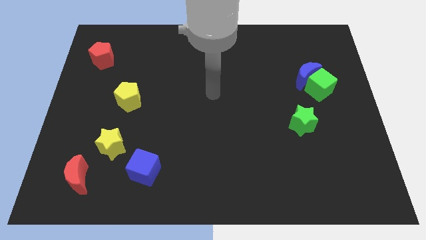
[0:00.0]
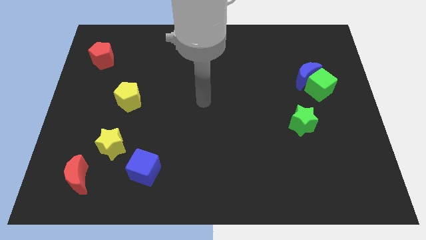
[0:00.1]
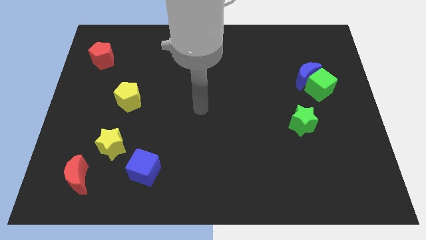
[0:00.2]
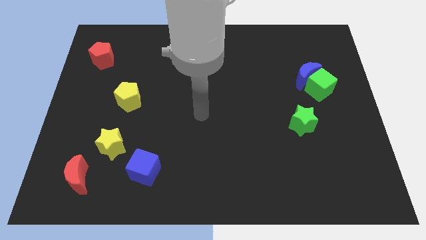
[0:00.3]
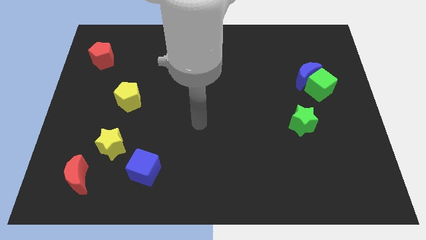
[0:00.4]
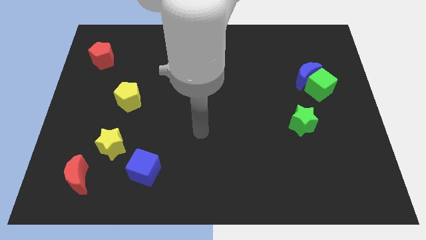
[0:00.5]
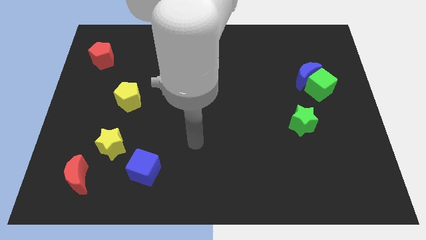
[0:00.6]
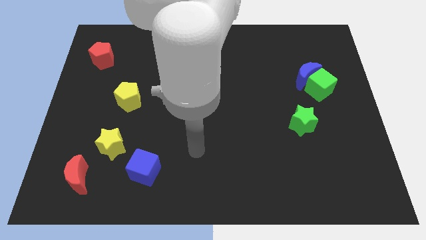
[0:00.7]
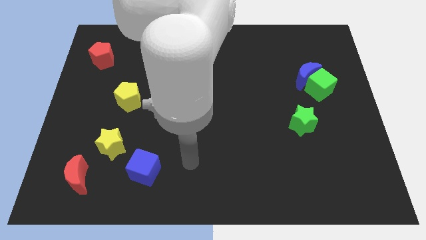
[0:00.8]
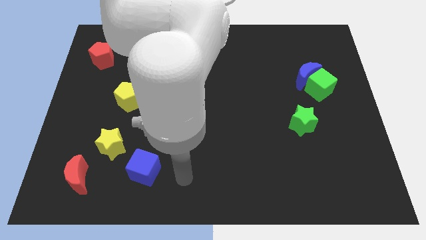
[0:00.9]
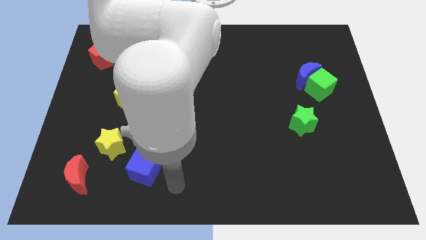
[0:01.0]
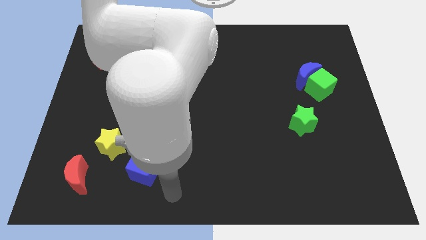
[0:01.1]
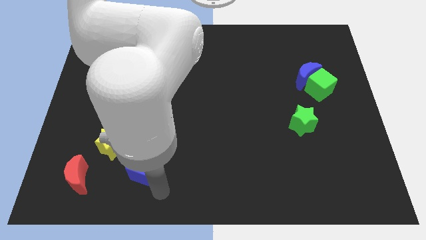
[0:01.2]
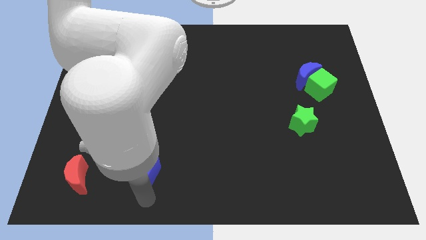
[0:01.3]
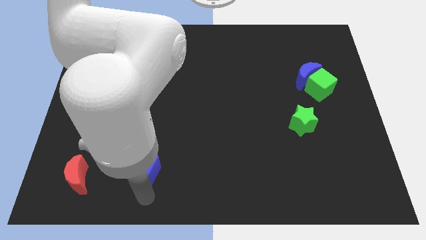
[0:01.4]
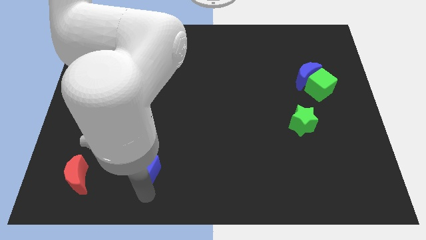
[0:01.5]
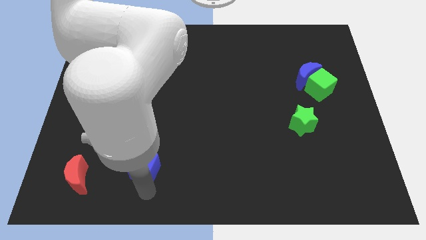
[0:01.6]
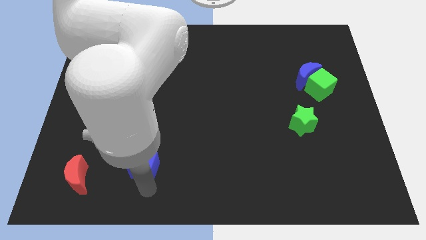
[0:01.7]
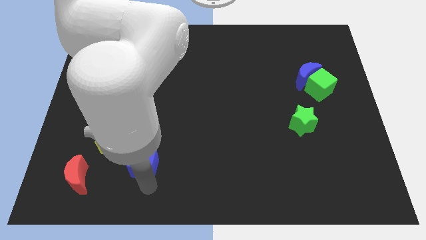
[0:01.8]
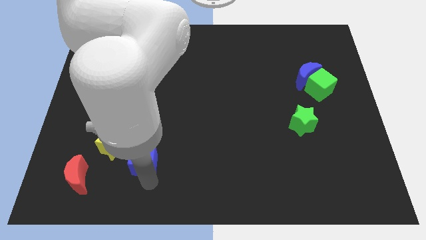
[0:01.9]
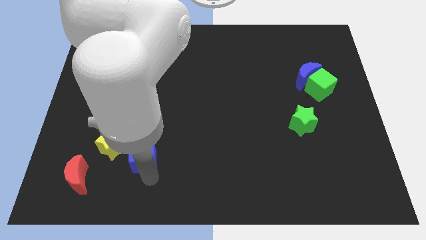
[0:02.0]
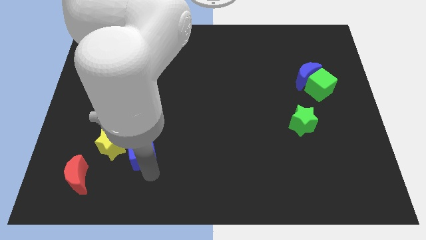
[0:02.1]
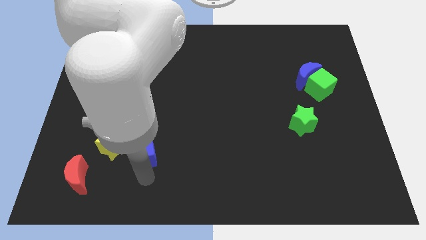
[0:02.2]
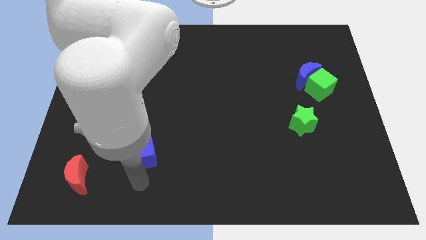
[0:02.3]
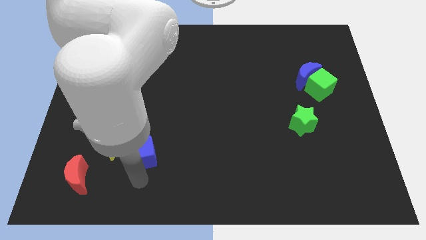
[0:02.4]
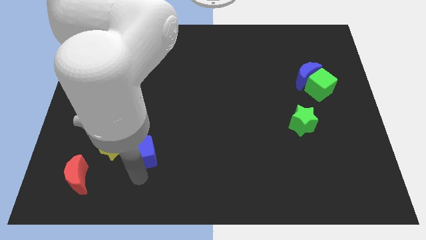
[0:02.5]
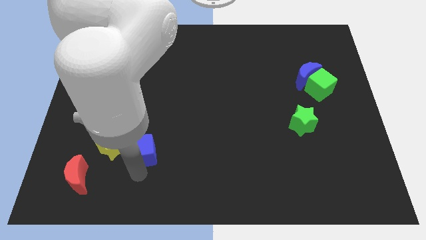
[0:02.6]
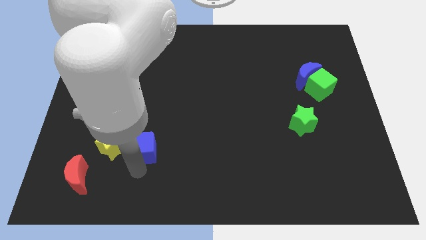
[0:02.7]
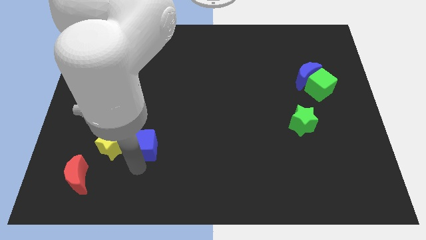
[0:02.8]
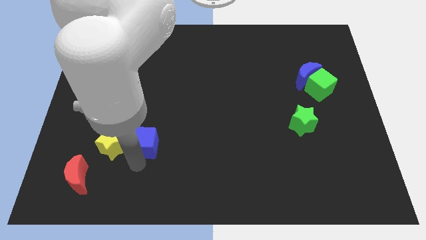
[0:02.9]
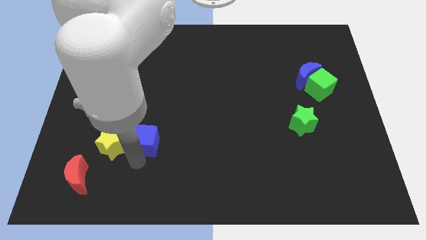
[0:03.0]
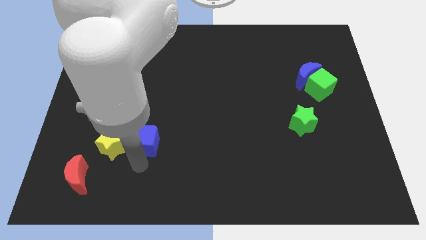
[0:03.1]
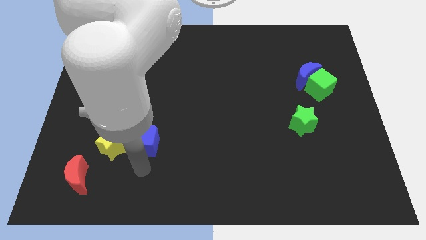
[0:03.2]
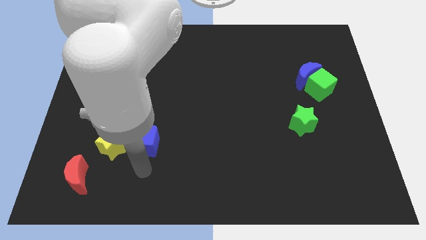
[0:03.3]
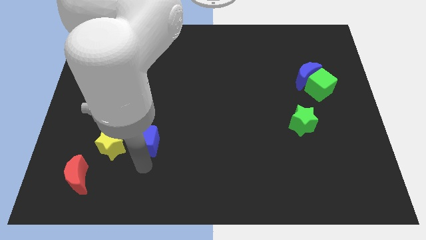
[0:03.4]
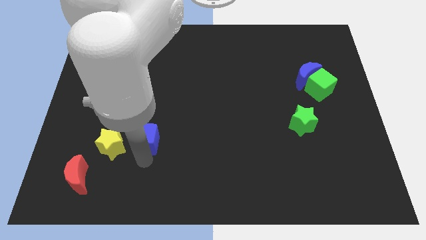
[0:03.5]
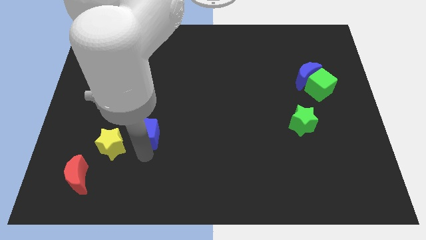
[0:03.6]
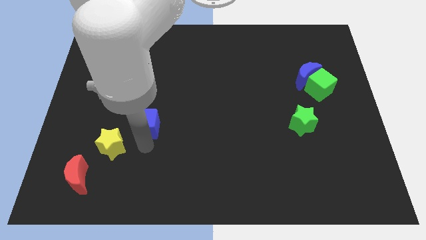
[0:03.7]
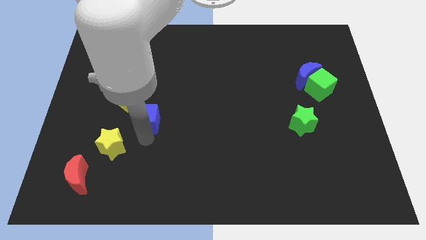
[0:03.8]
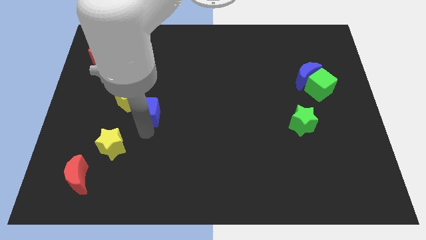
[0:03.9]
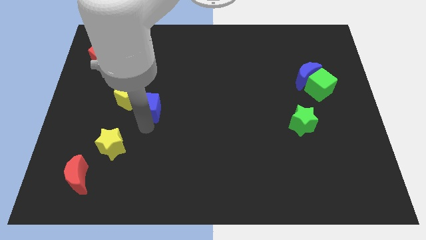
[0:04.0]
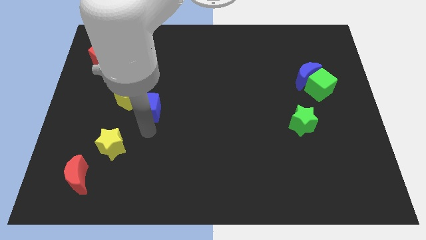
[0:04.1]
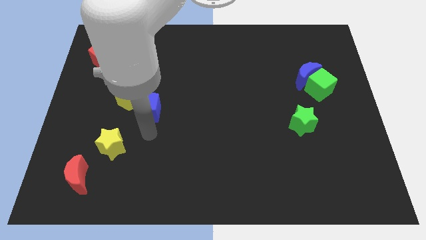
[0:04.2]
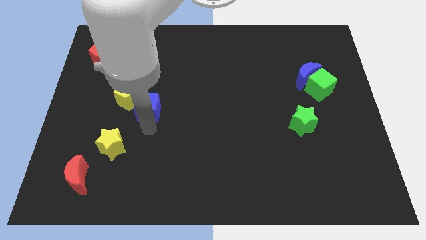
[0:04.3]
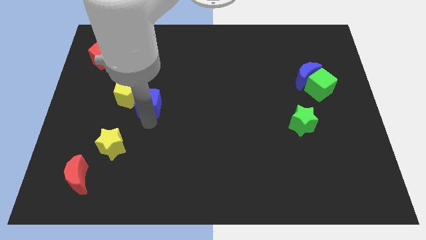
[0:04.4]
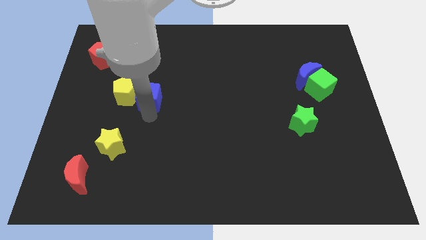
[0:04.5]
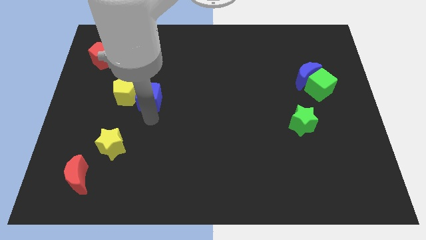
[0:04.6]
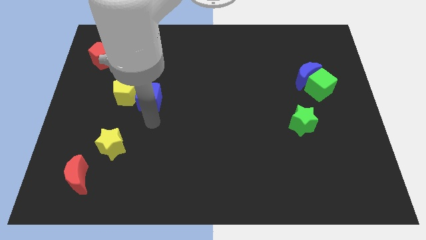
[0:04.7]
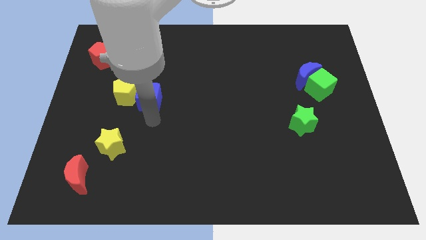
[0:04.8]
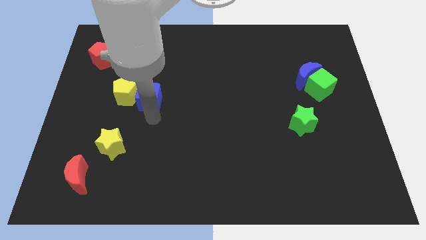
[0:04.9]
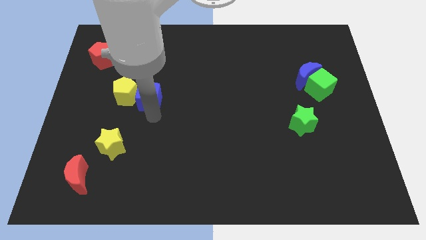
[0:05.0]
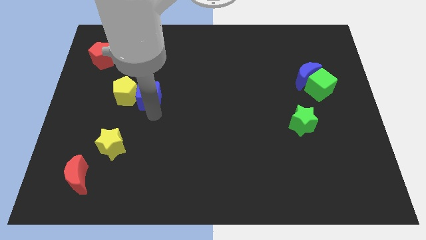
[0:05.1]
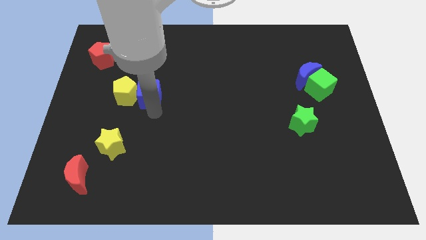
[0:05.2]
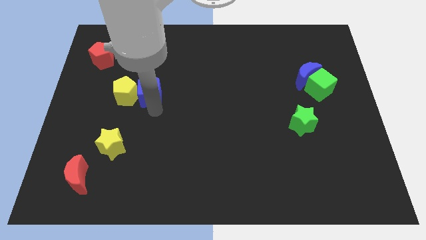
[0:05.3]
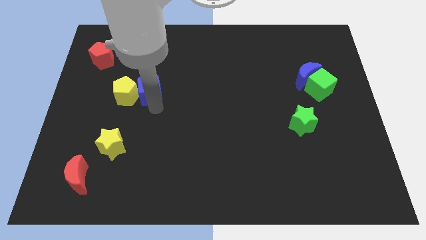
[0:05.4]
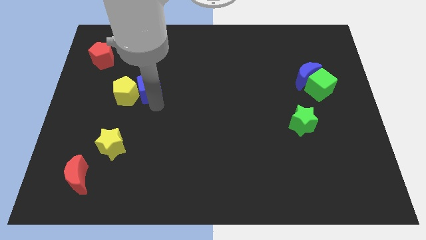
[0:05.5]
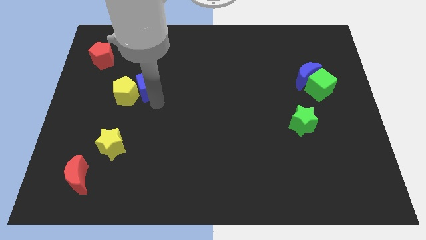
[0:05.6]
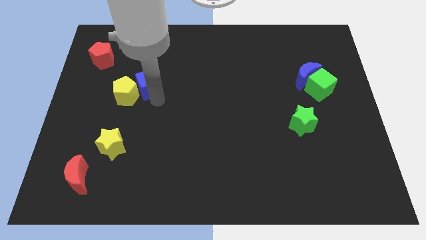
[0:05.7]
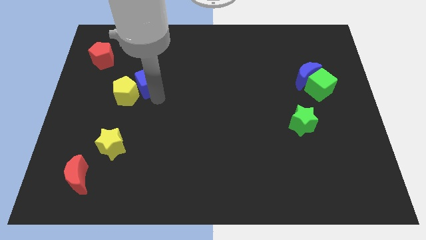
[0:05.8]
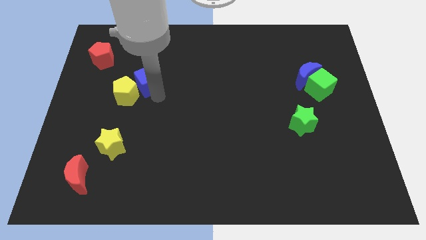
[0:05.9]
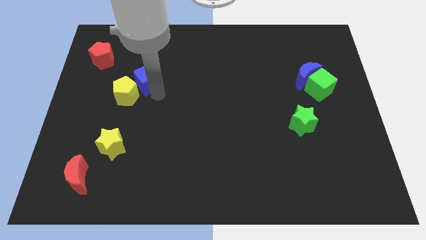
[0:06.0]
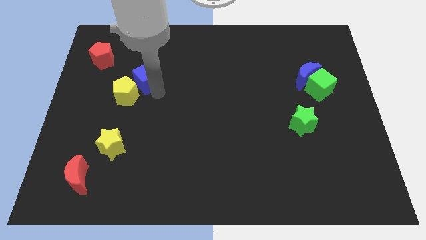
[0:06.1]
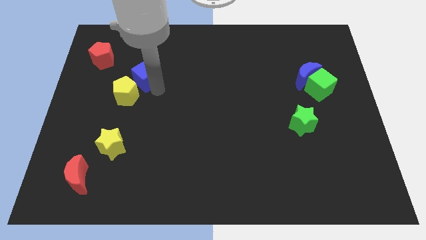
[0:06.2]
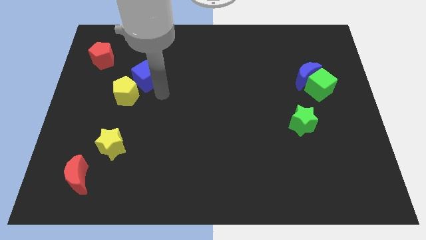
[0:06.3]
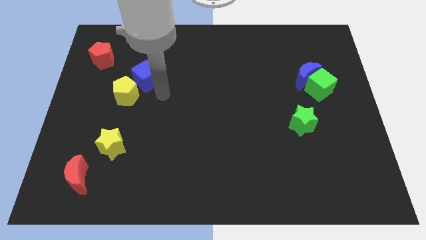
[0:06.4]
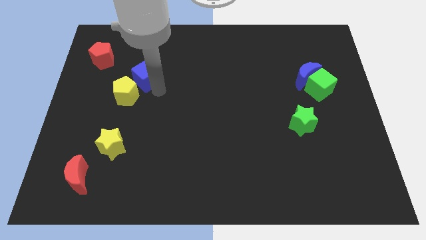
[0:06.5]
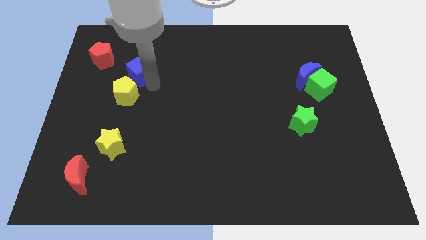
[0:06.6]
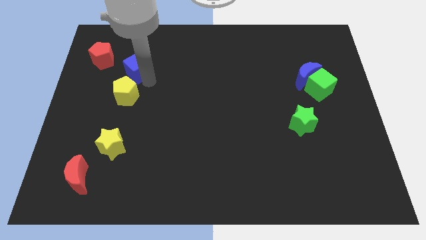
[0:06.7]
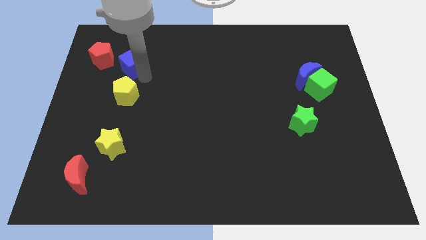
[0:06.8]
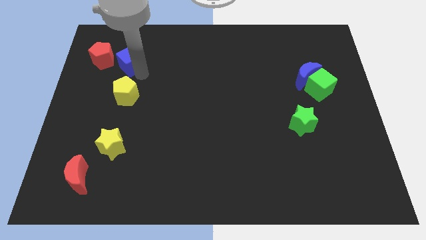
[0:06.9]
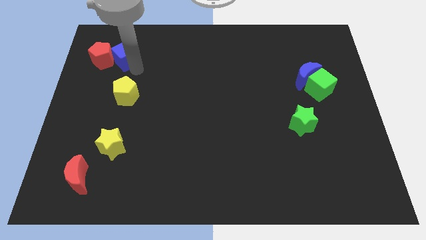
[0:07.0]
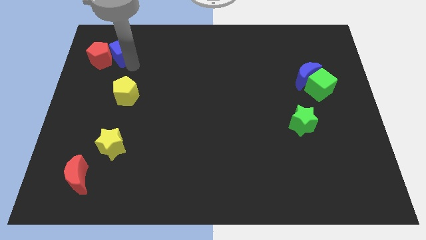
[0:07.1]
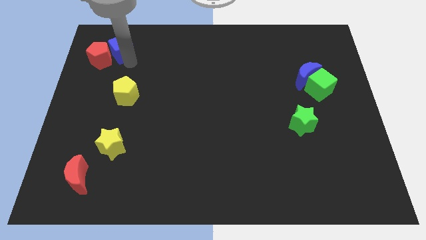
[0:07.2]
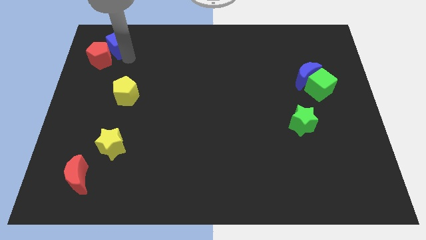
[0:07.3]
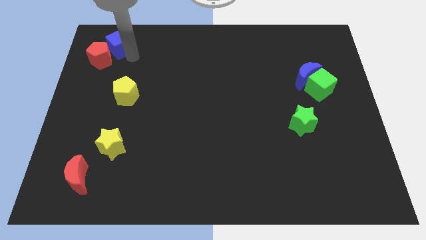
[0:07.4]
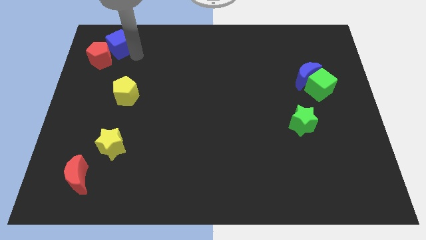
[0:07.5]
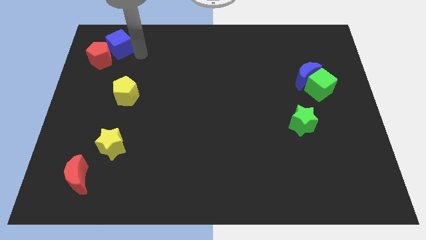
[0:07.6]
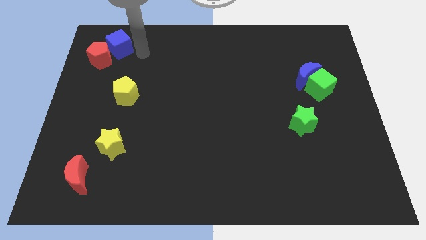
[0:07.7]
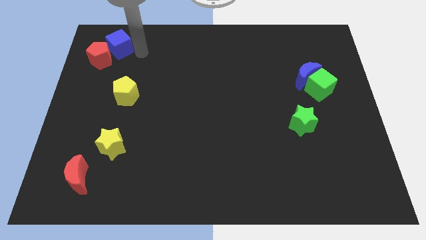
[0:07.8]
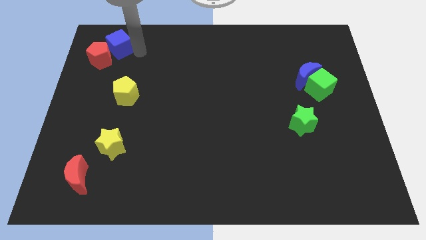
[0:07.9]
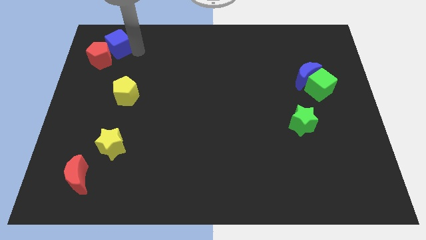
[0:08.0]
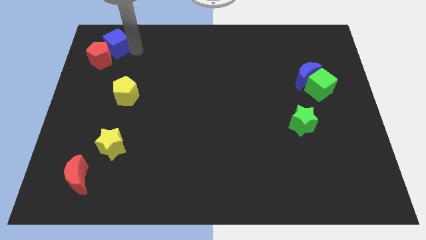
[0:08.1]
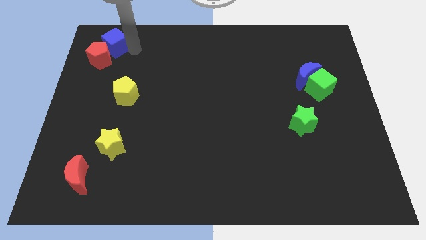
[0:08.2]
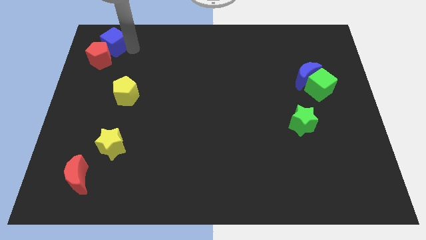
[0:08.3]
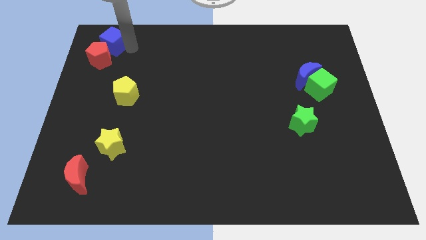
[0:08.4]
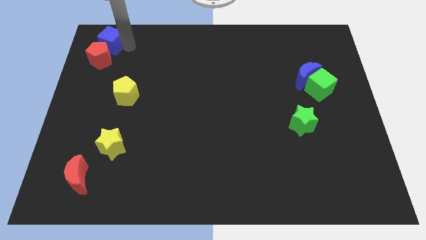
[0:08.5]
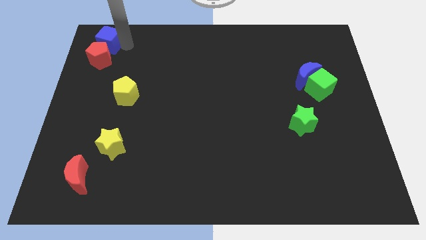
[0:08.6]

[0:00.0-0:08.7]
slide the blue cube to the top left
